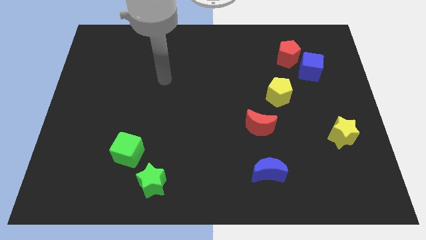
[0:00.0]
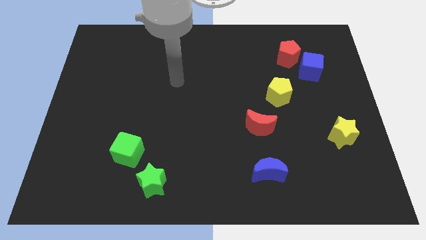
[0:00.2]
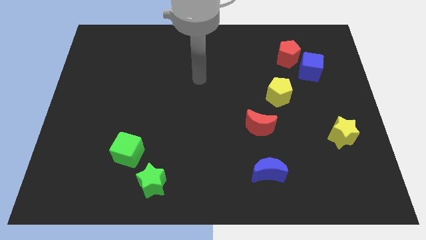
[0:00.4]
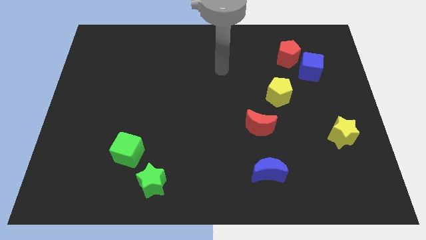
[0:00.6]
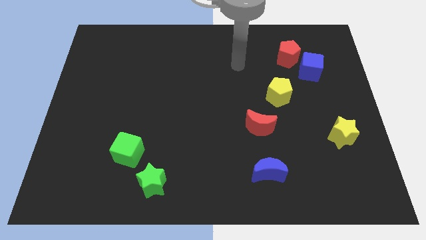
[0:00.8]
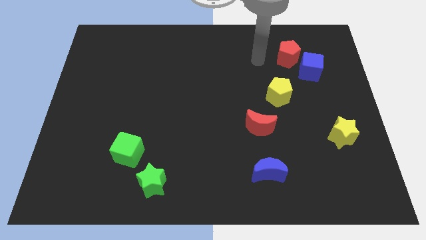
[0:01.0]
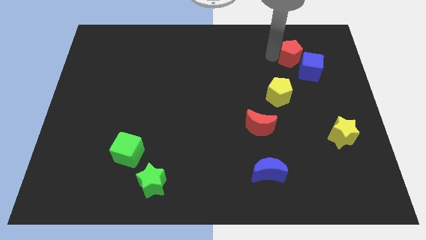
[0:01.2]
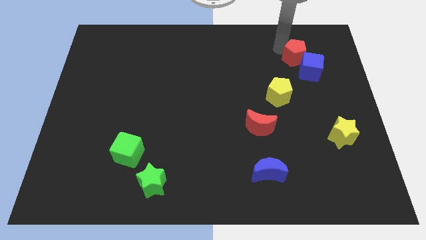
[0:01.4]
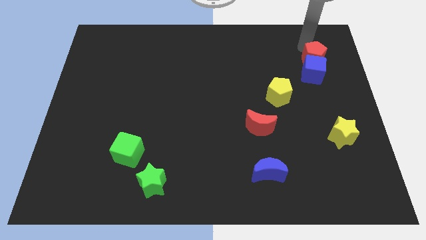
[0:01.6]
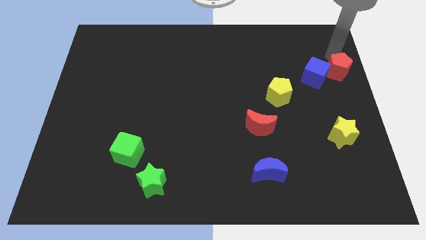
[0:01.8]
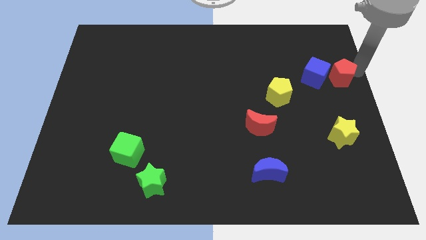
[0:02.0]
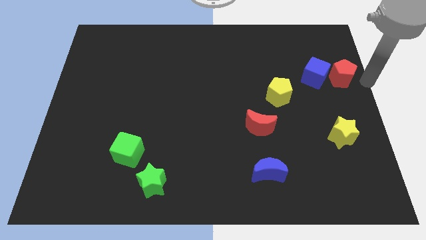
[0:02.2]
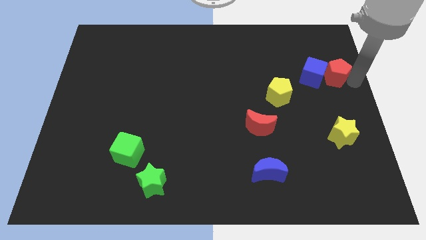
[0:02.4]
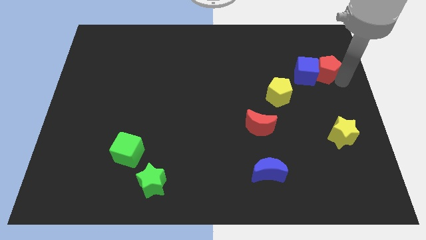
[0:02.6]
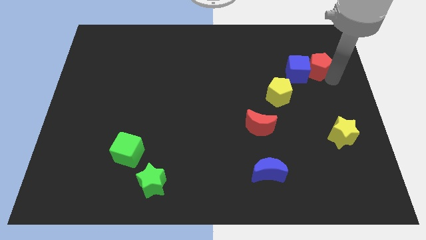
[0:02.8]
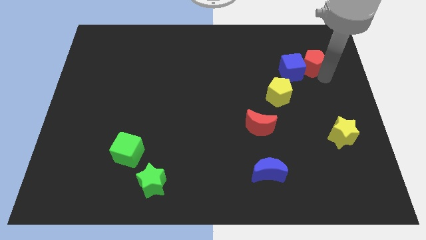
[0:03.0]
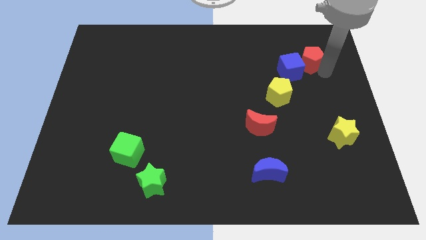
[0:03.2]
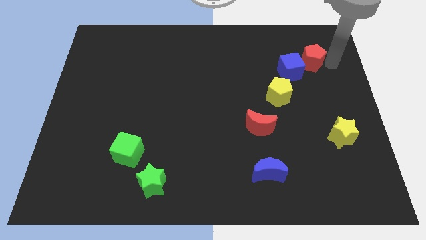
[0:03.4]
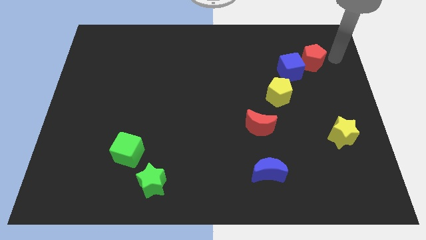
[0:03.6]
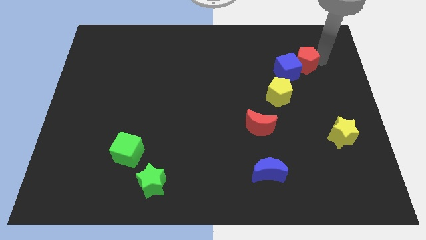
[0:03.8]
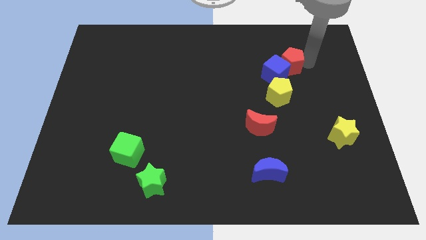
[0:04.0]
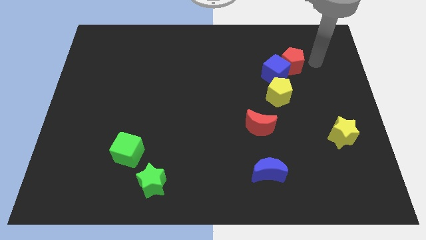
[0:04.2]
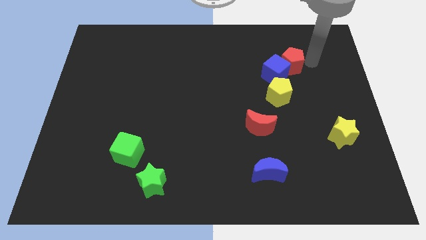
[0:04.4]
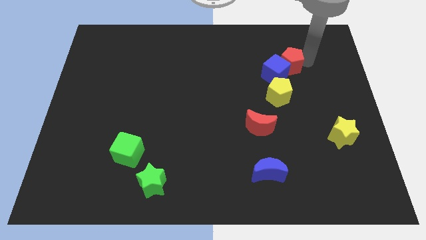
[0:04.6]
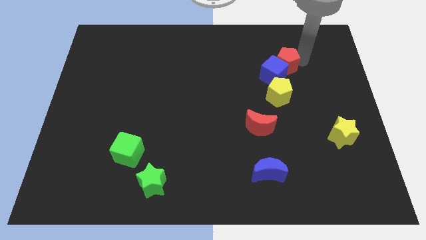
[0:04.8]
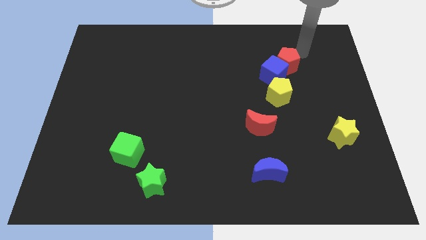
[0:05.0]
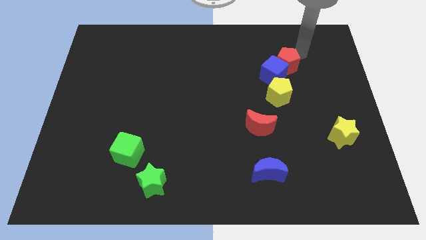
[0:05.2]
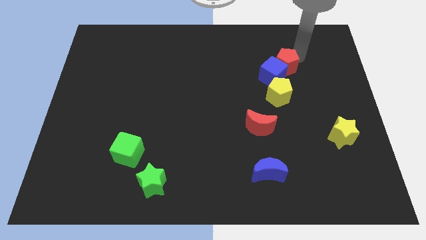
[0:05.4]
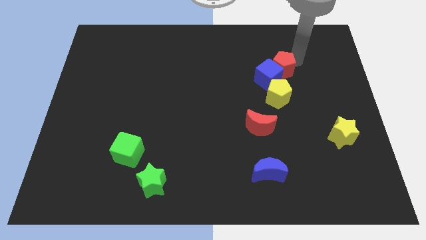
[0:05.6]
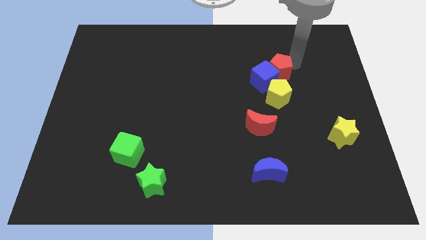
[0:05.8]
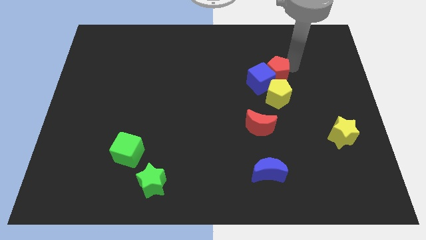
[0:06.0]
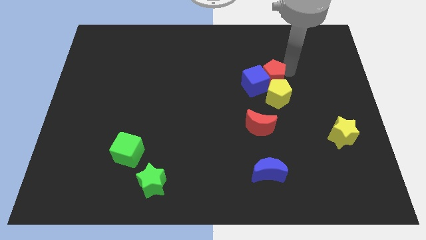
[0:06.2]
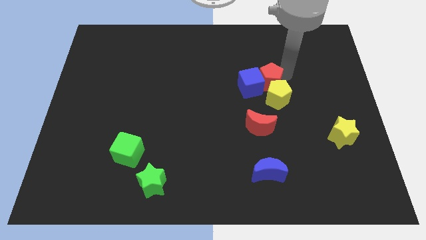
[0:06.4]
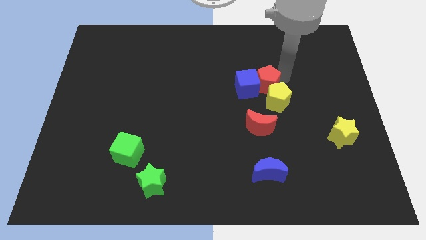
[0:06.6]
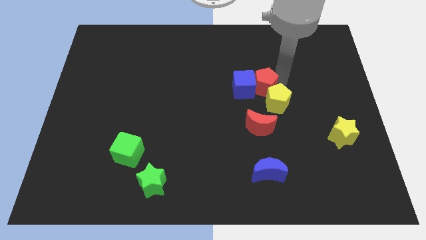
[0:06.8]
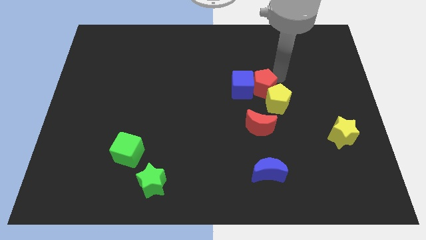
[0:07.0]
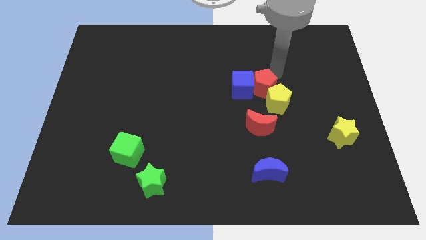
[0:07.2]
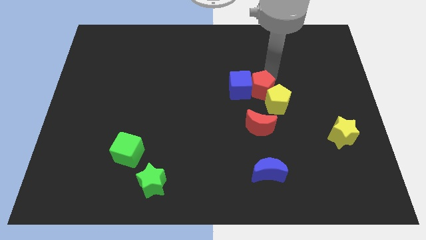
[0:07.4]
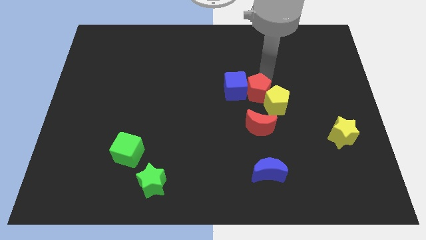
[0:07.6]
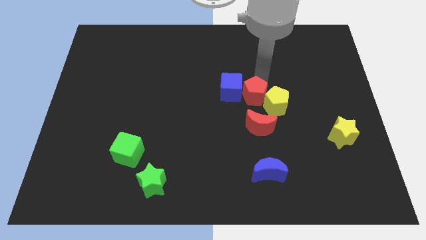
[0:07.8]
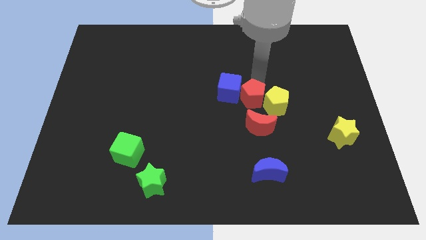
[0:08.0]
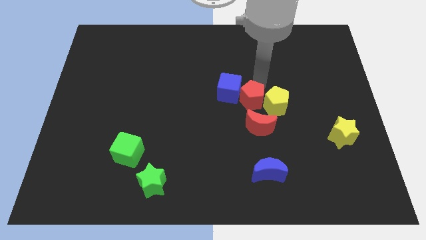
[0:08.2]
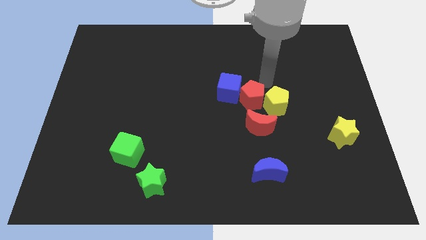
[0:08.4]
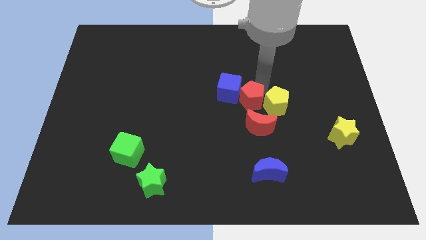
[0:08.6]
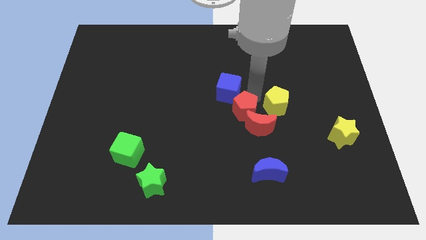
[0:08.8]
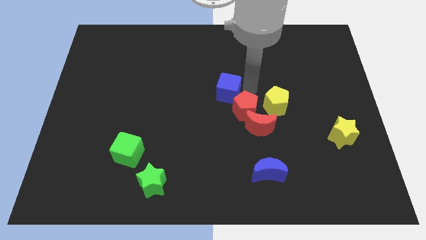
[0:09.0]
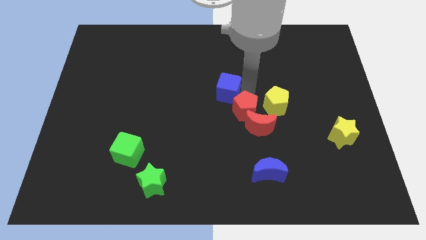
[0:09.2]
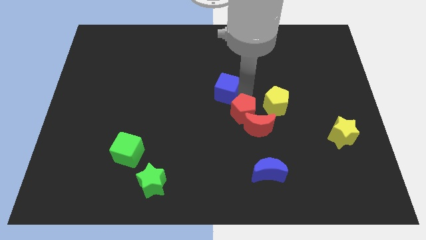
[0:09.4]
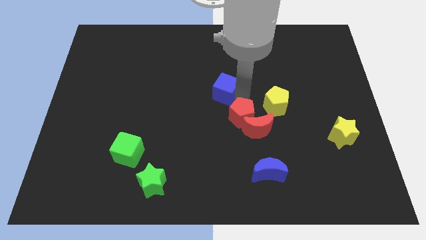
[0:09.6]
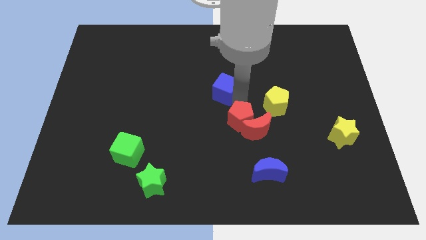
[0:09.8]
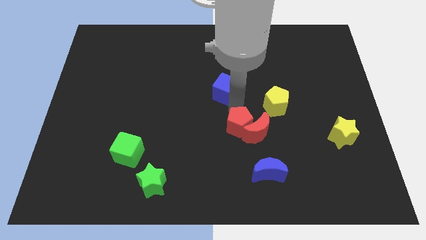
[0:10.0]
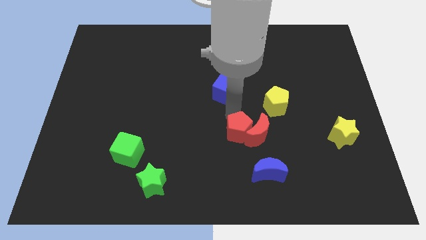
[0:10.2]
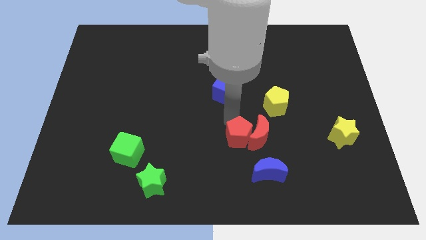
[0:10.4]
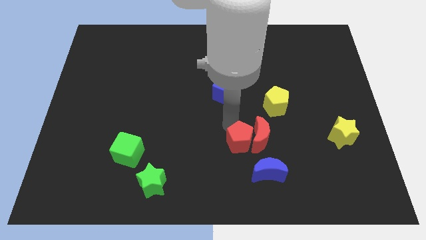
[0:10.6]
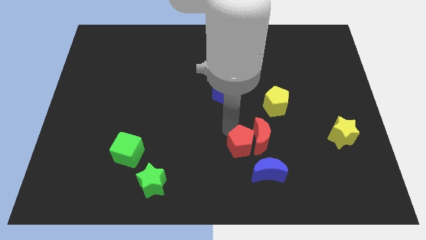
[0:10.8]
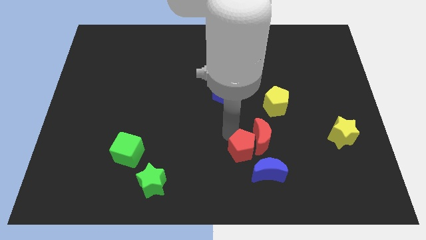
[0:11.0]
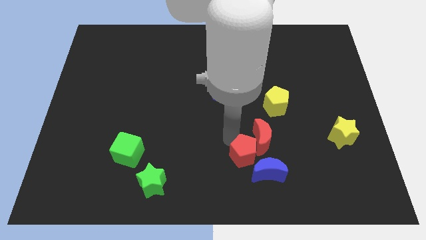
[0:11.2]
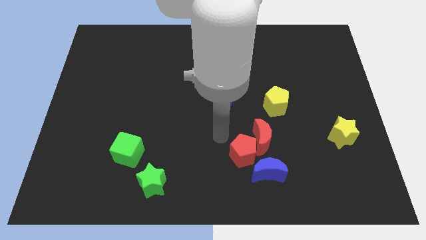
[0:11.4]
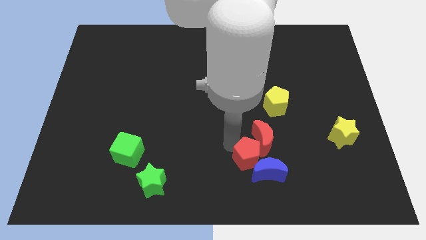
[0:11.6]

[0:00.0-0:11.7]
slide the red pentagon next to the blue moon

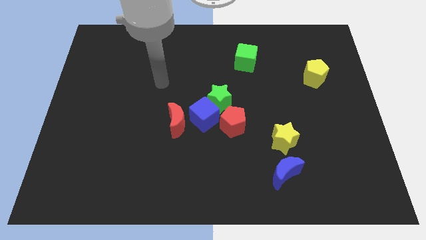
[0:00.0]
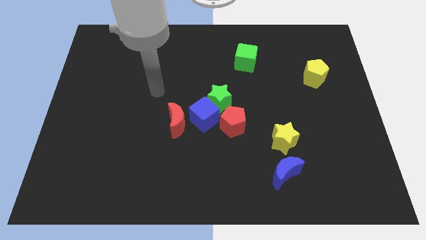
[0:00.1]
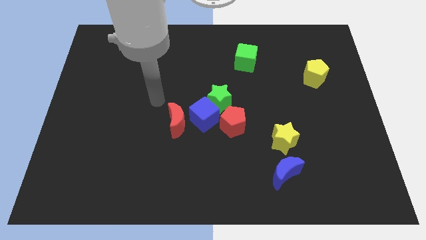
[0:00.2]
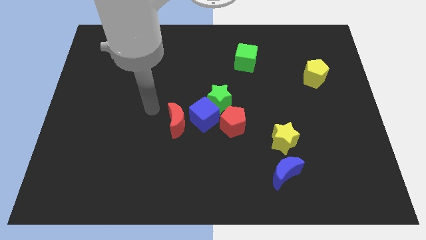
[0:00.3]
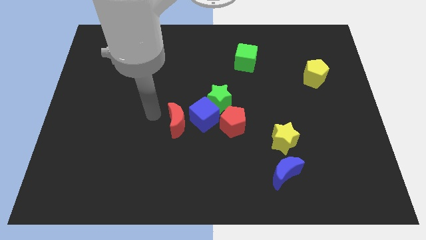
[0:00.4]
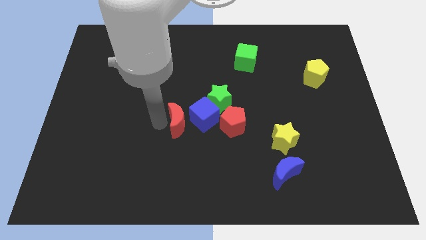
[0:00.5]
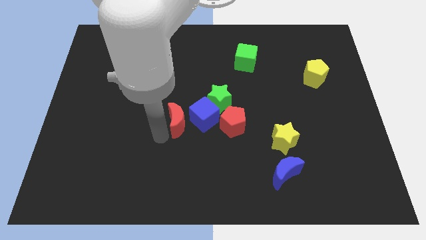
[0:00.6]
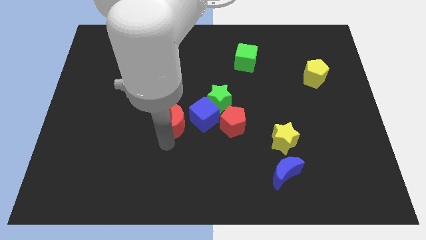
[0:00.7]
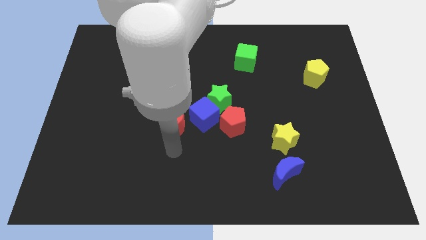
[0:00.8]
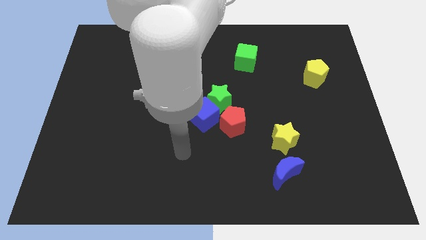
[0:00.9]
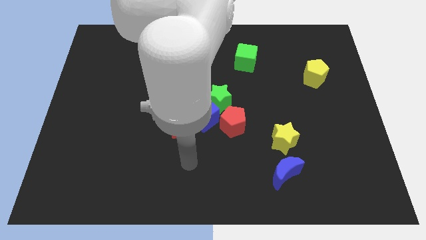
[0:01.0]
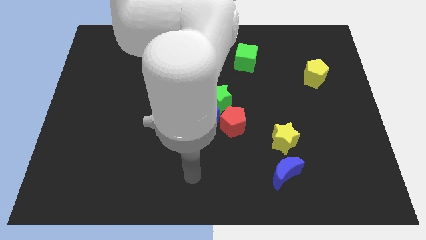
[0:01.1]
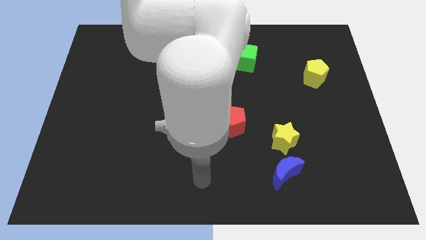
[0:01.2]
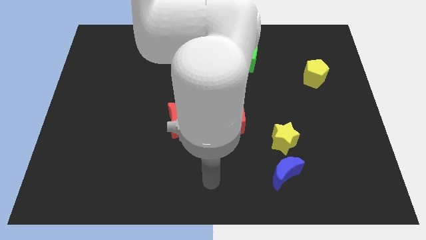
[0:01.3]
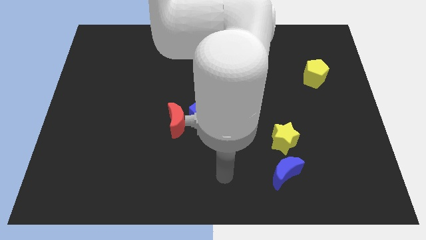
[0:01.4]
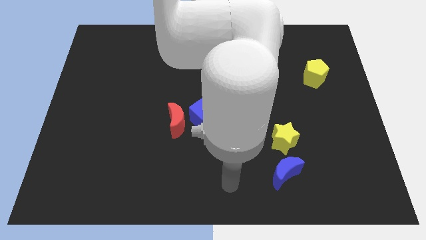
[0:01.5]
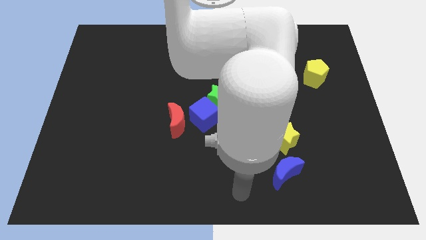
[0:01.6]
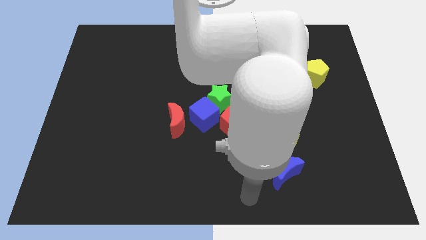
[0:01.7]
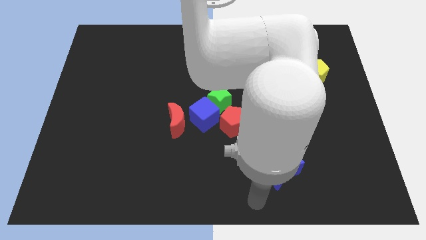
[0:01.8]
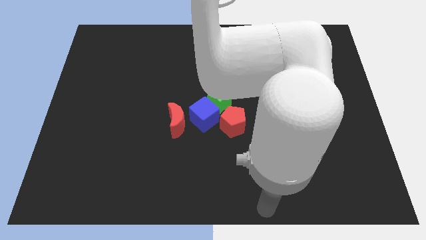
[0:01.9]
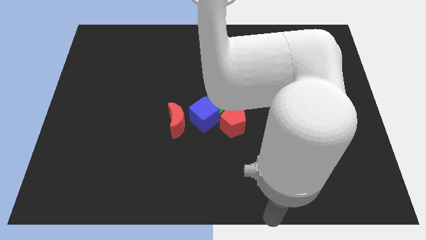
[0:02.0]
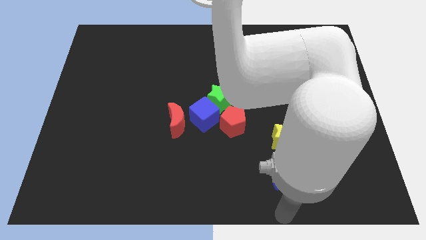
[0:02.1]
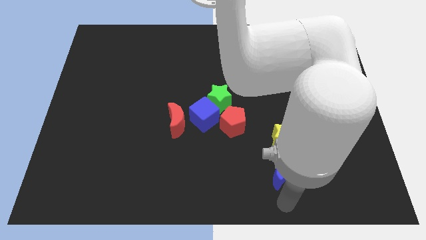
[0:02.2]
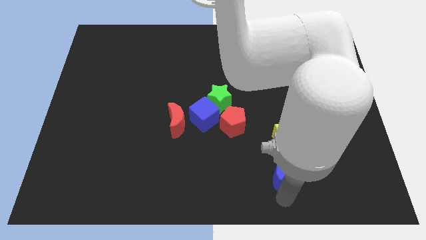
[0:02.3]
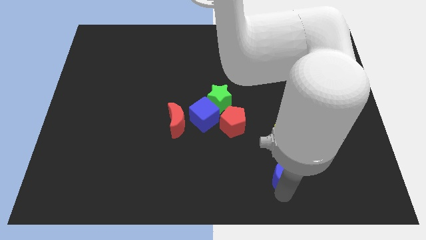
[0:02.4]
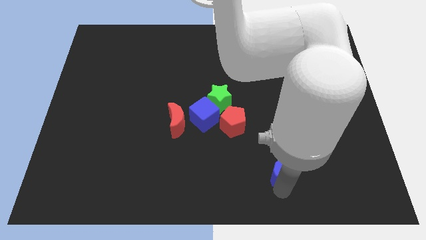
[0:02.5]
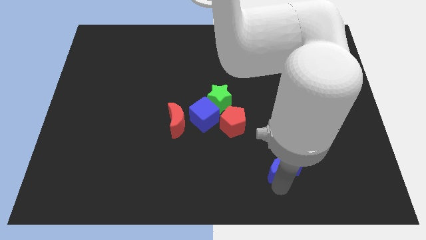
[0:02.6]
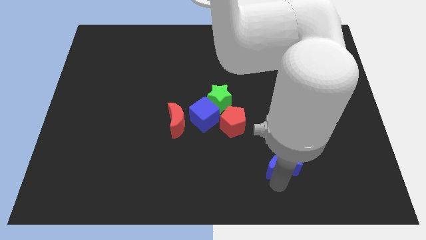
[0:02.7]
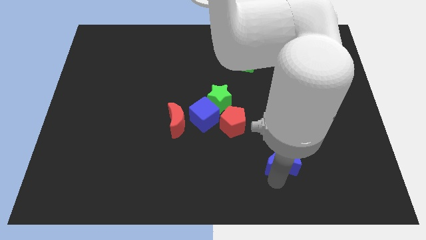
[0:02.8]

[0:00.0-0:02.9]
push the blue moon towards the yellow star
